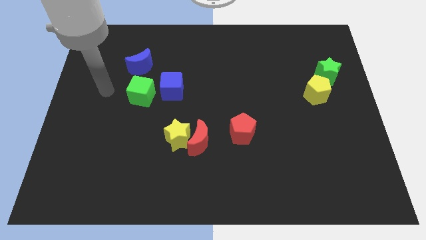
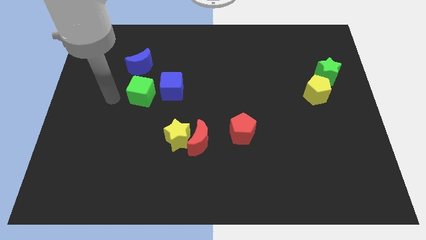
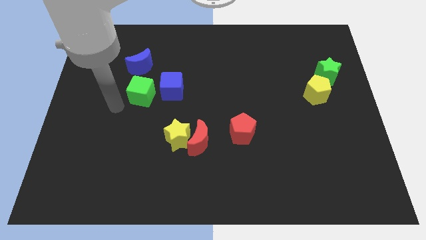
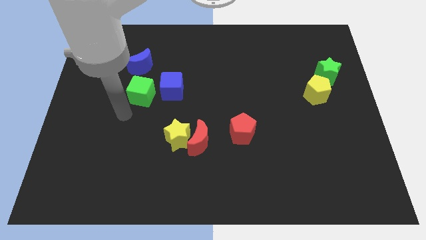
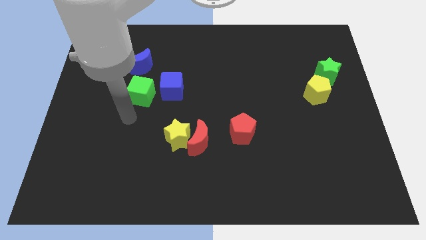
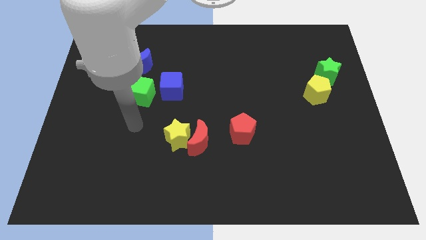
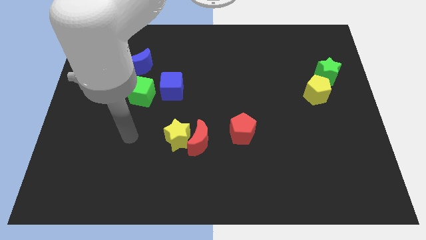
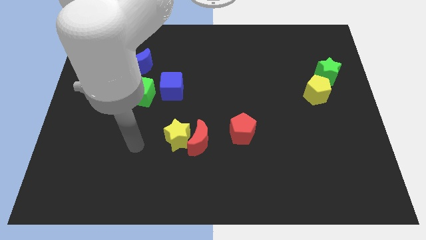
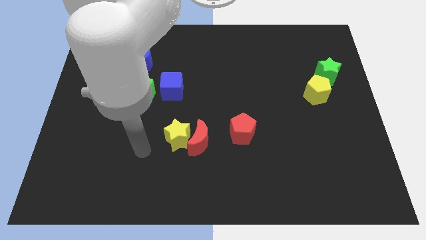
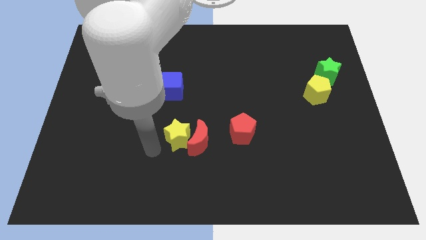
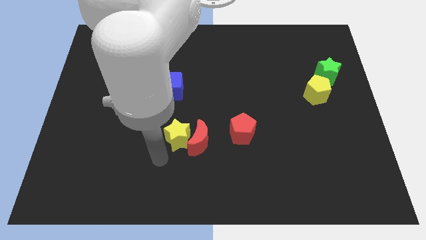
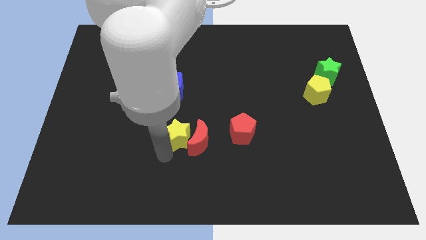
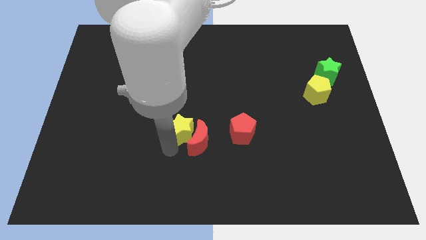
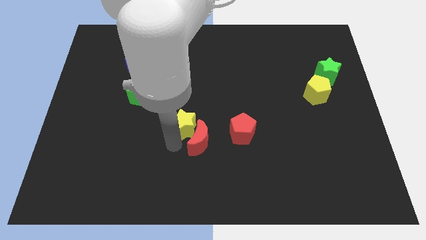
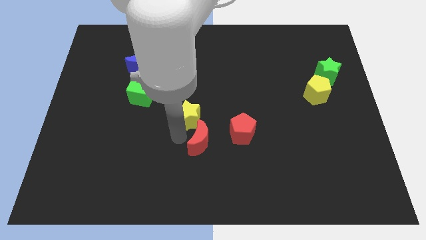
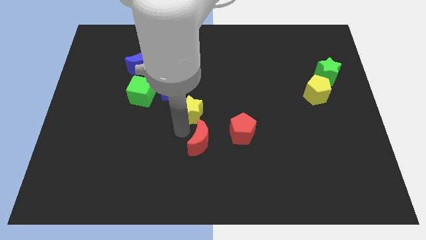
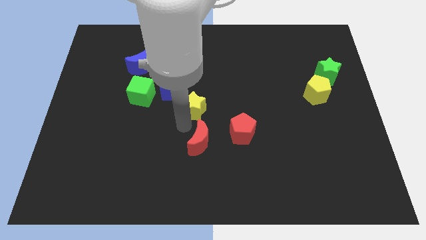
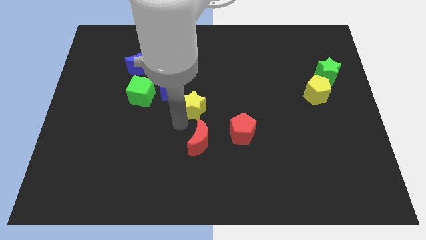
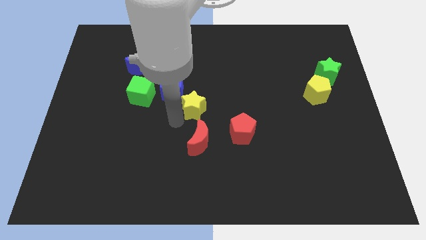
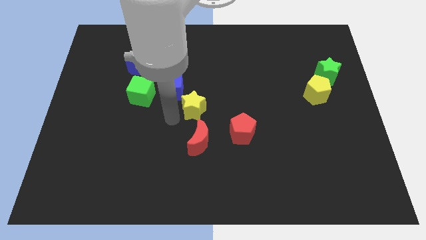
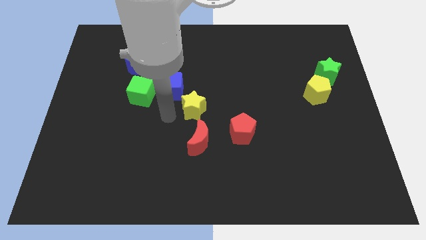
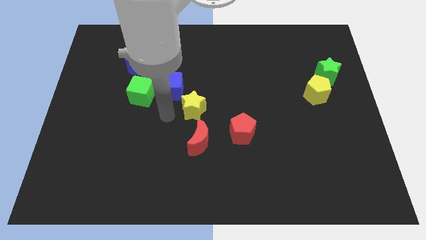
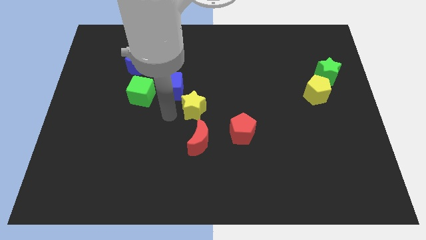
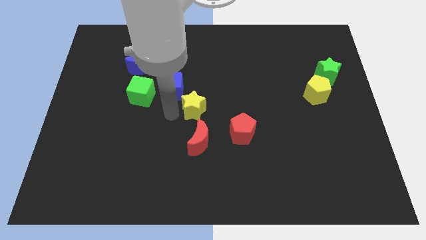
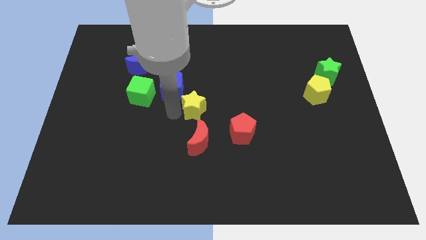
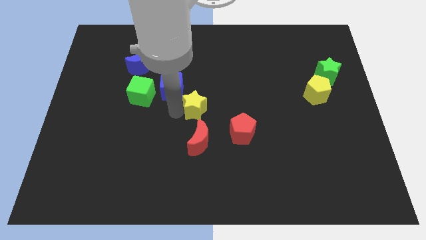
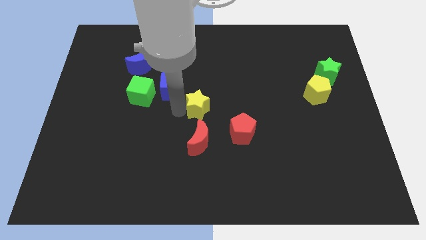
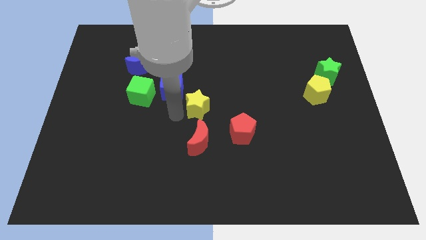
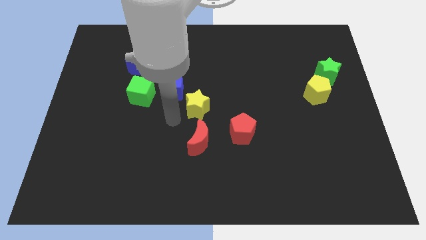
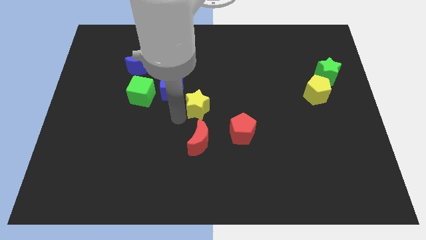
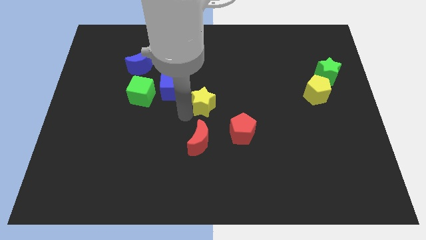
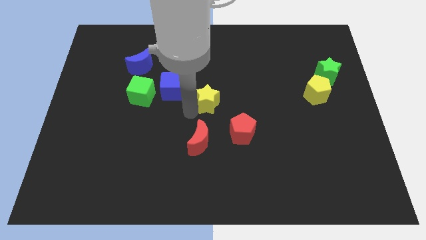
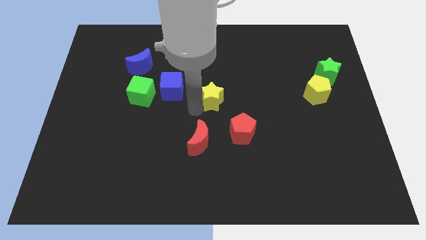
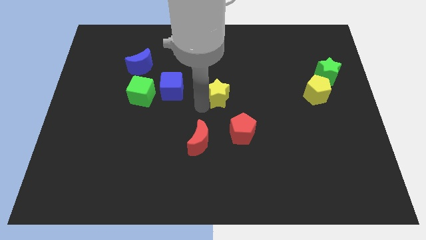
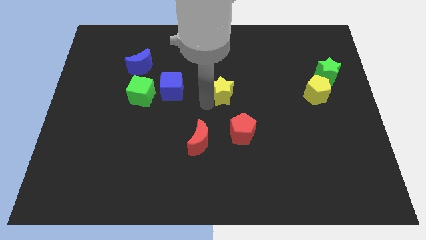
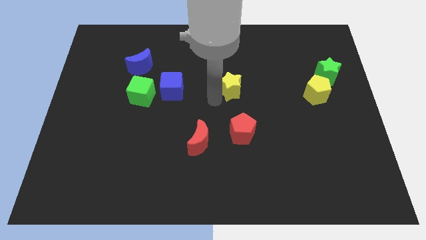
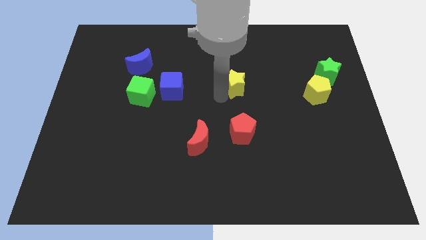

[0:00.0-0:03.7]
slide the yellow star up and right

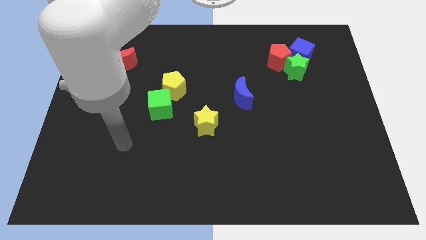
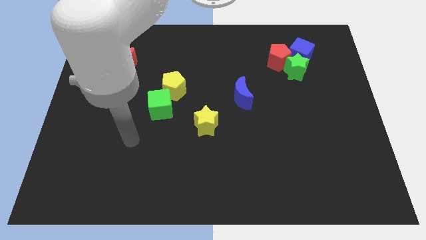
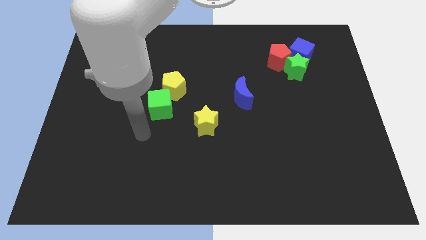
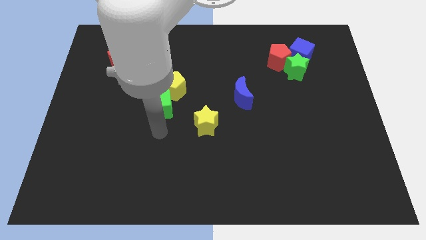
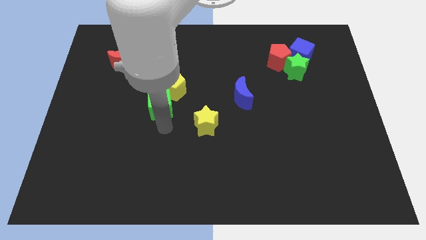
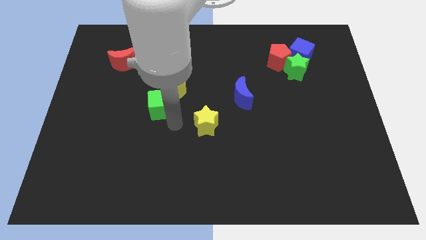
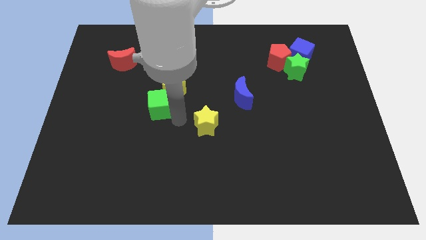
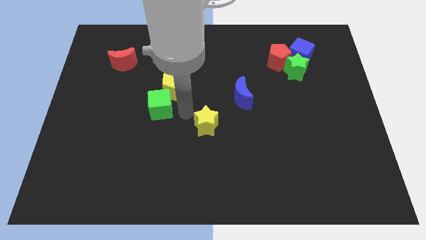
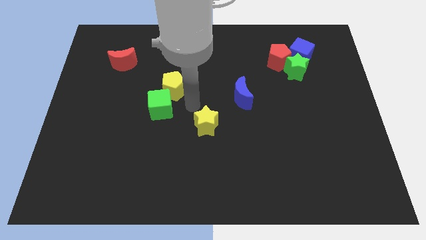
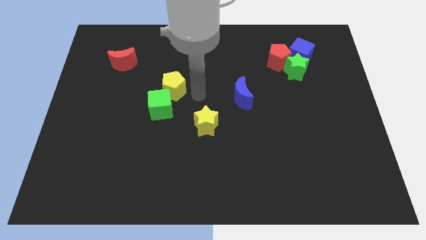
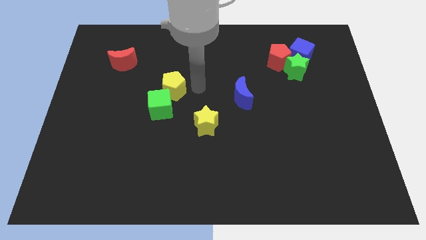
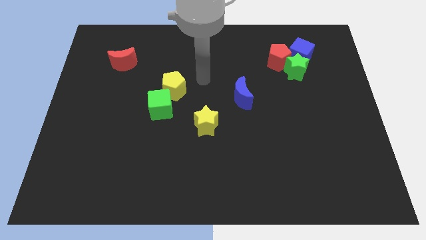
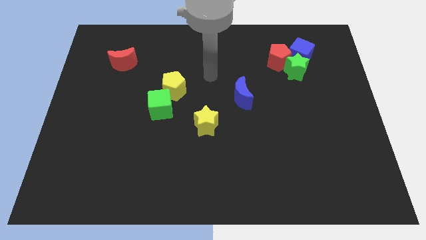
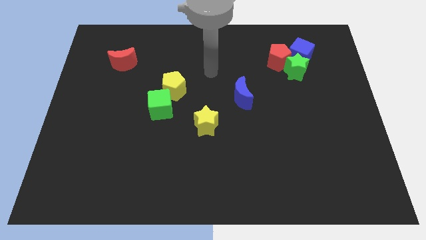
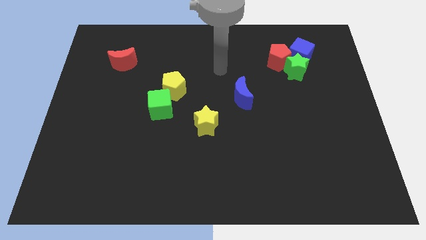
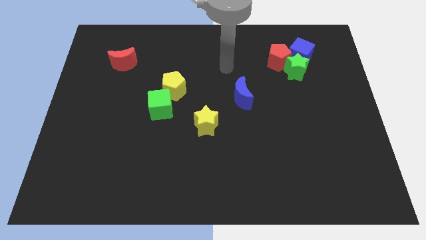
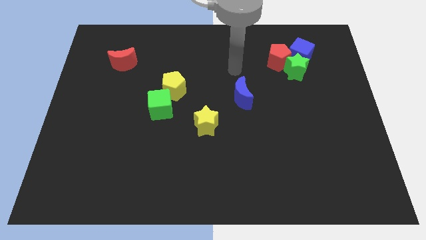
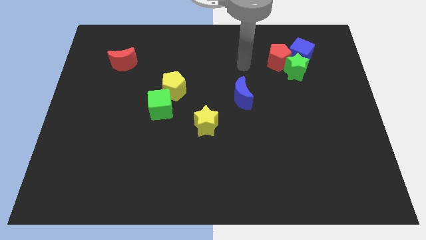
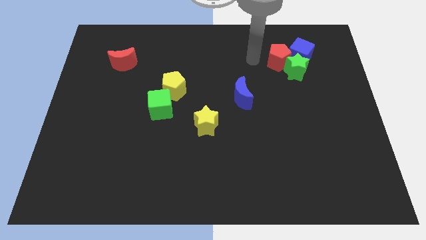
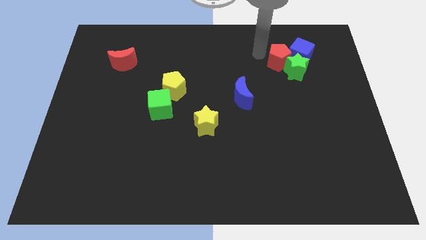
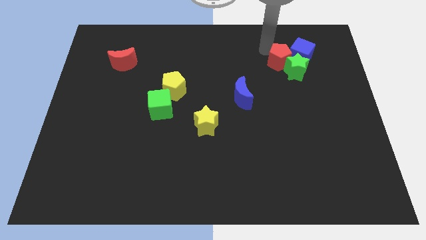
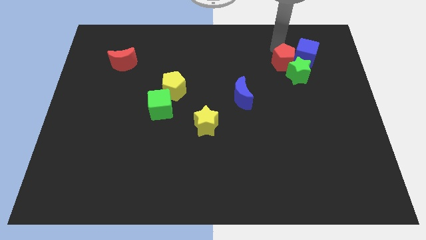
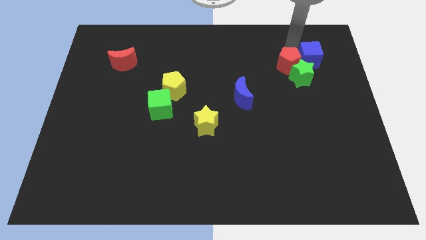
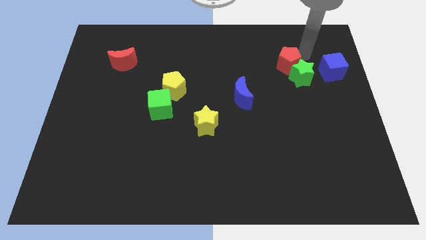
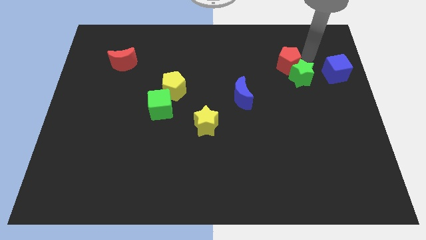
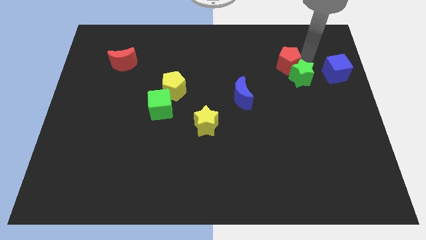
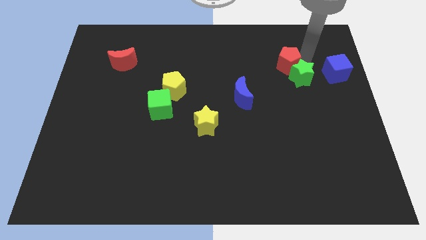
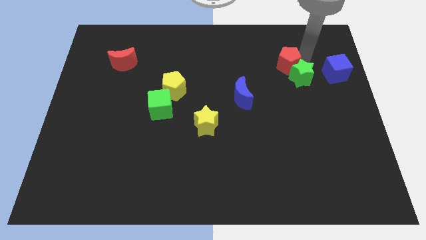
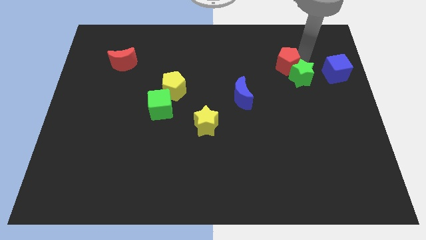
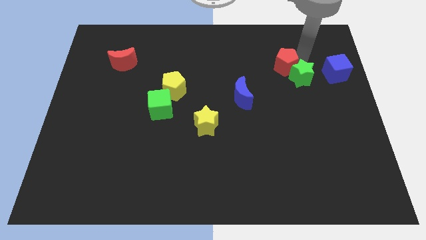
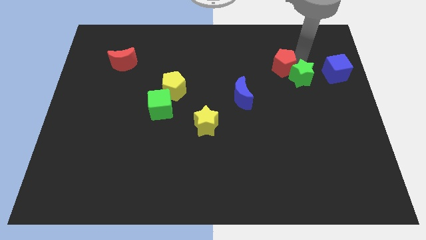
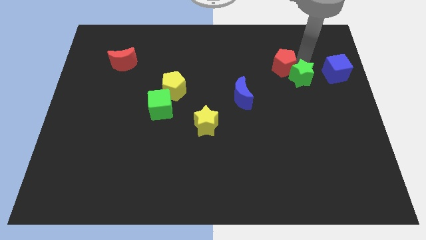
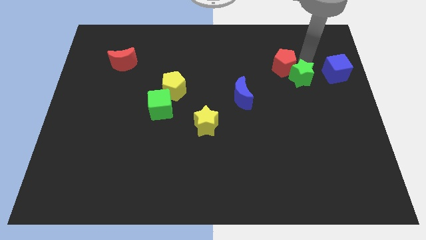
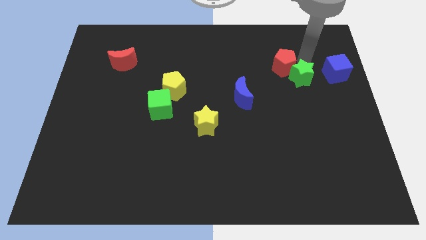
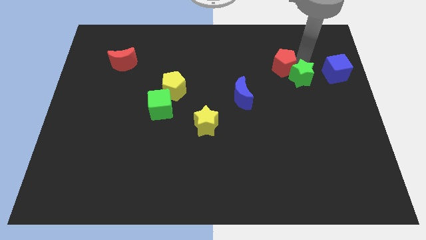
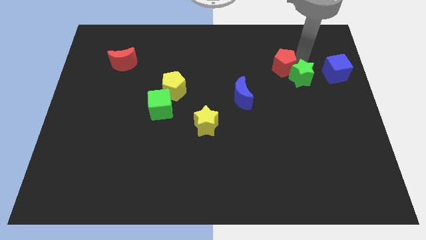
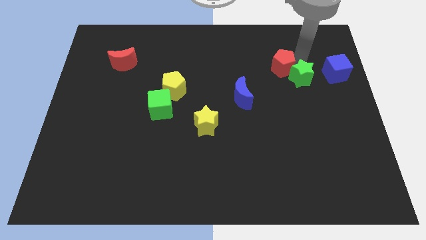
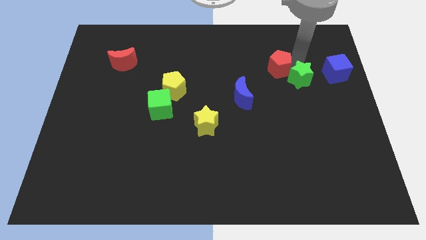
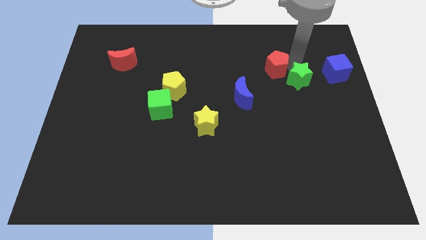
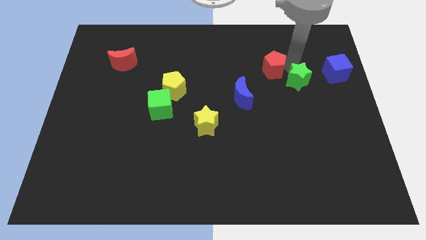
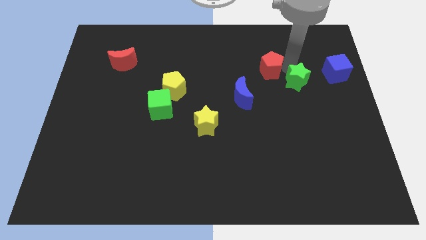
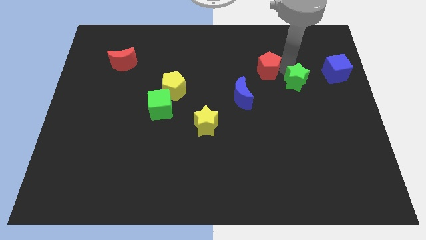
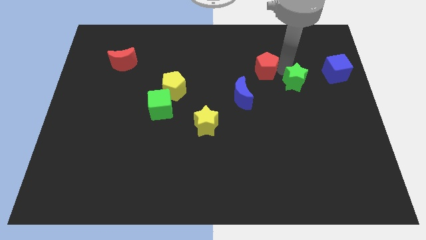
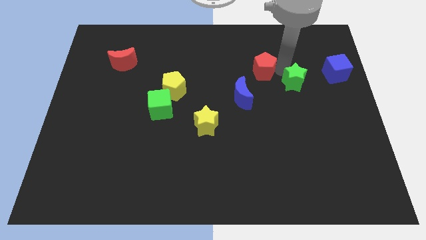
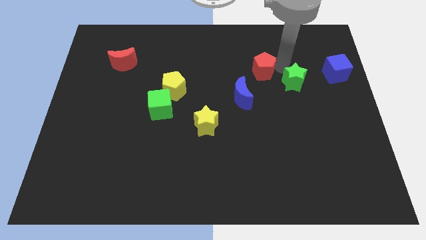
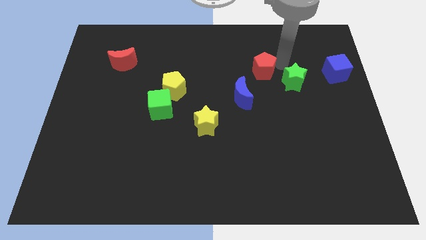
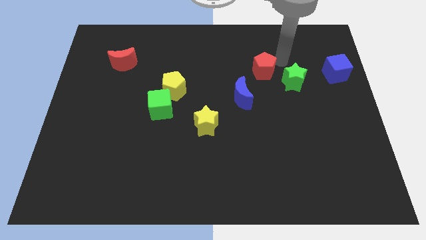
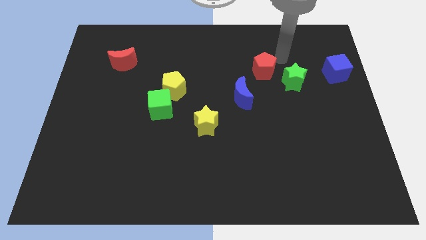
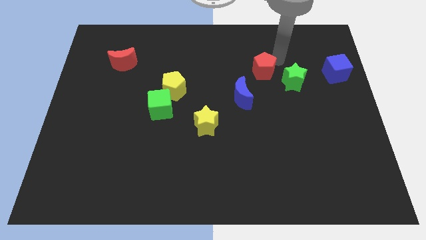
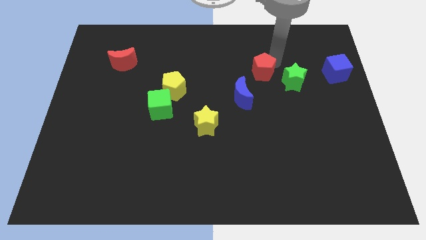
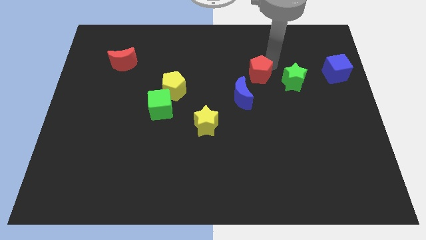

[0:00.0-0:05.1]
move the red pentagon a little downwards and to the left
